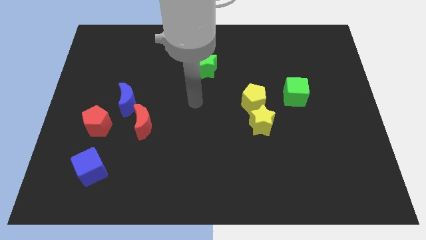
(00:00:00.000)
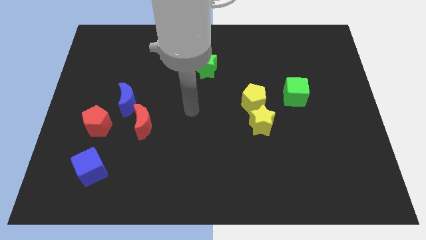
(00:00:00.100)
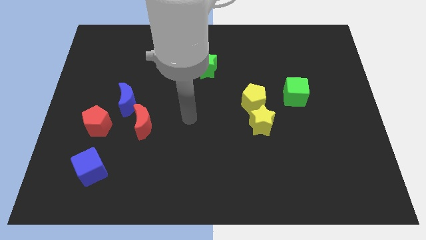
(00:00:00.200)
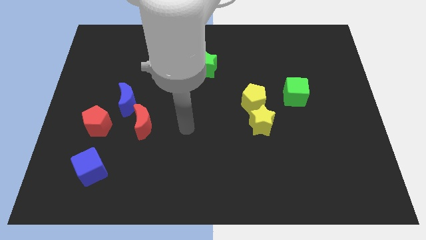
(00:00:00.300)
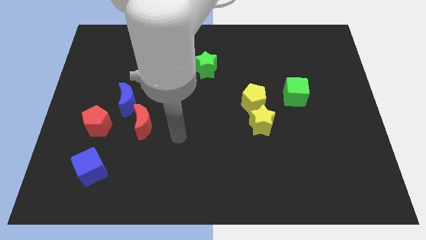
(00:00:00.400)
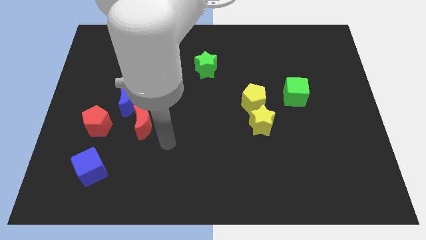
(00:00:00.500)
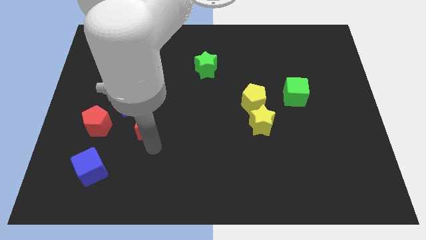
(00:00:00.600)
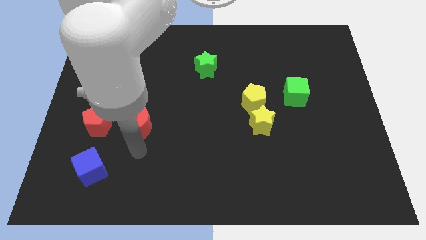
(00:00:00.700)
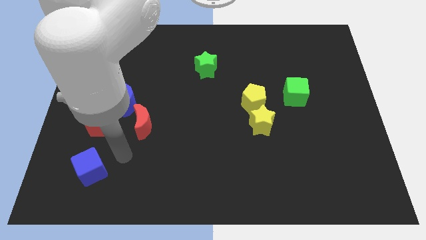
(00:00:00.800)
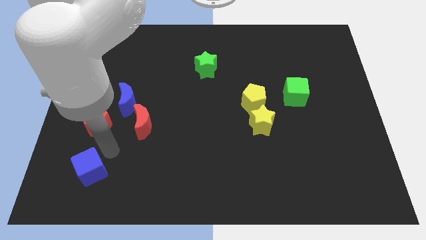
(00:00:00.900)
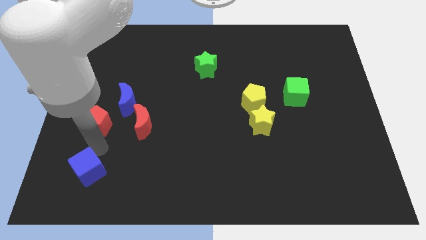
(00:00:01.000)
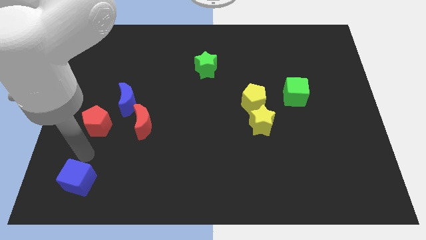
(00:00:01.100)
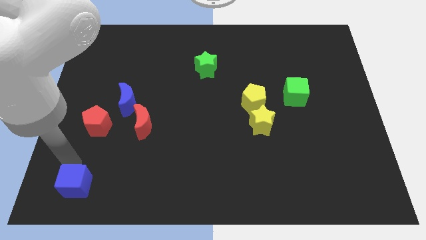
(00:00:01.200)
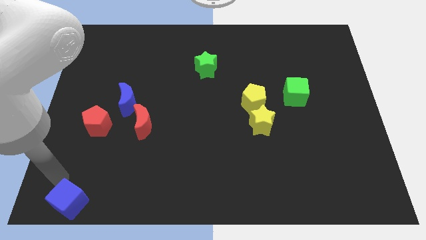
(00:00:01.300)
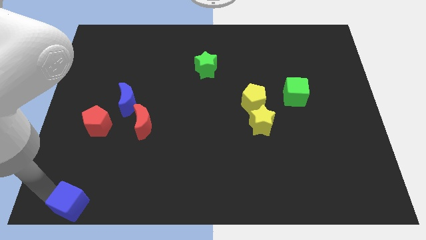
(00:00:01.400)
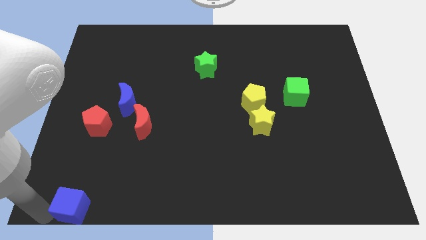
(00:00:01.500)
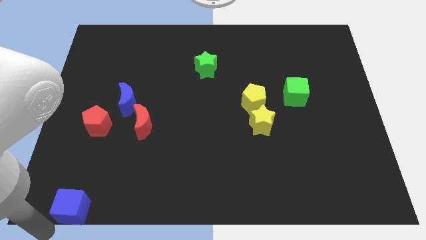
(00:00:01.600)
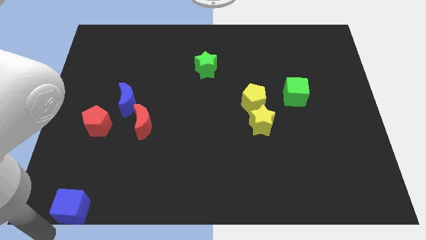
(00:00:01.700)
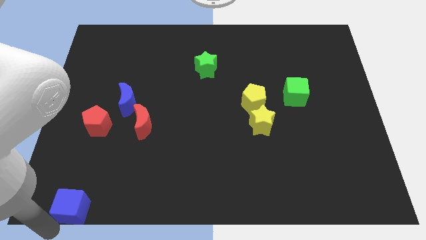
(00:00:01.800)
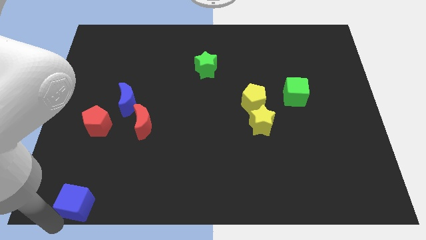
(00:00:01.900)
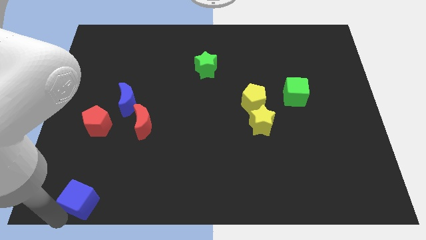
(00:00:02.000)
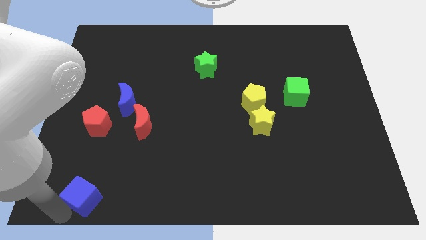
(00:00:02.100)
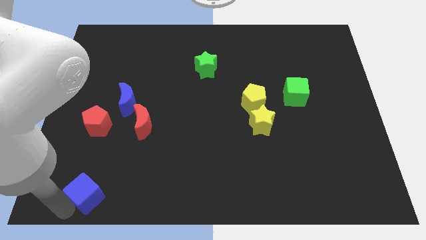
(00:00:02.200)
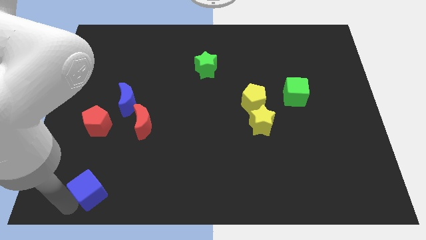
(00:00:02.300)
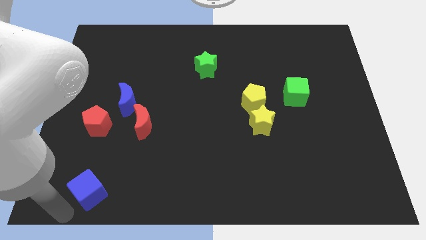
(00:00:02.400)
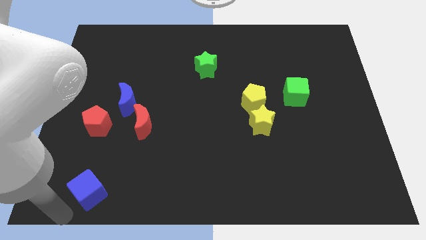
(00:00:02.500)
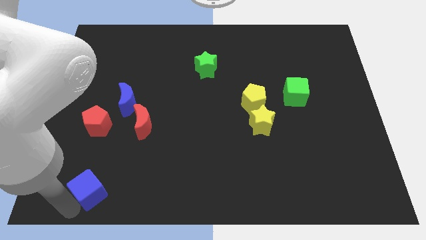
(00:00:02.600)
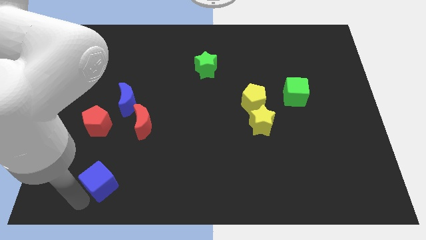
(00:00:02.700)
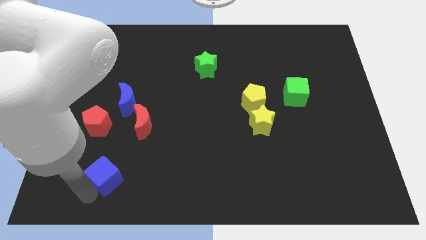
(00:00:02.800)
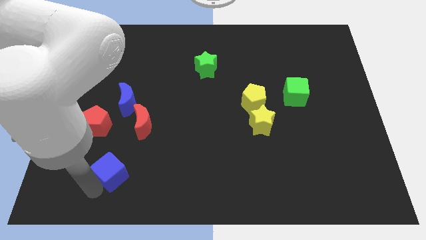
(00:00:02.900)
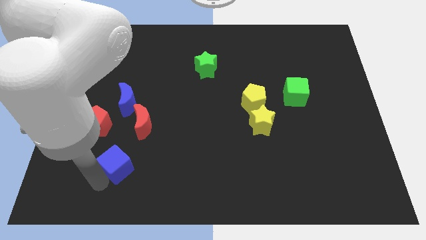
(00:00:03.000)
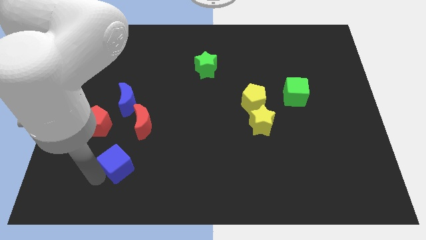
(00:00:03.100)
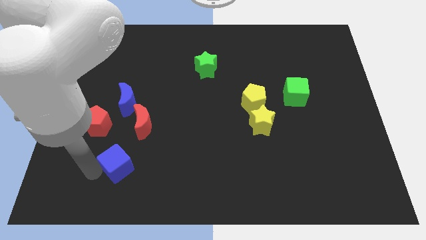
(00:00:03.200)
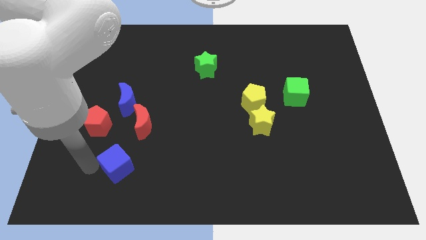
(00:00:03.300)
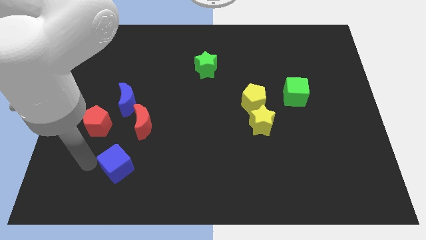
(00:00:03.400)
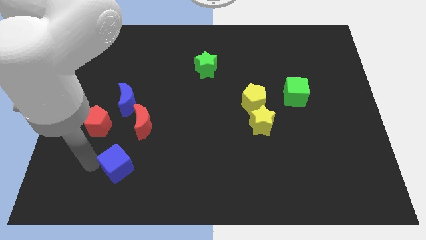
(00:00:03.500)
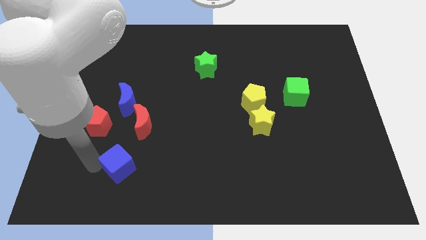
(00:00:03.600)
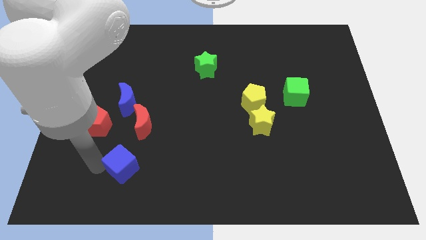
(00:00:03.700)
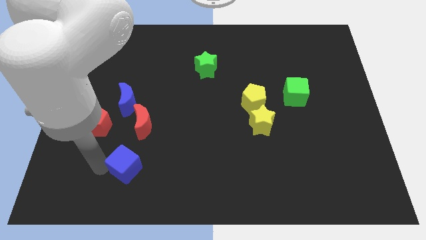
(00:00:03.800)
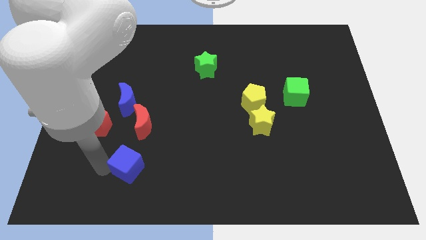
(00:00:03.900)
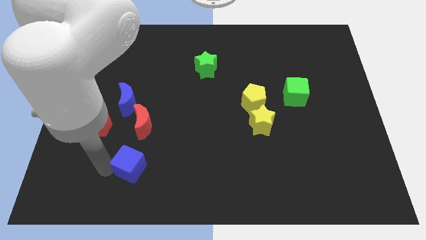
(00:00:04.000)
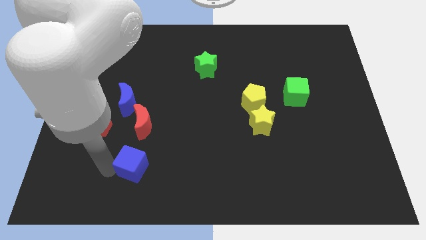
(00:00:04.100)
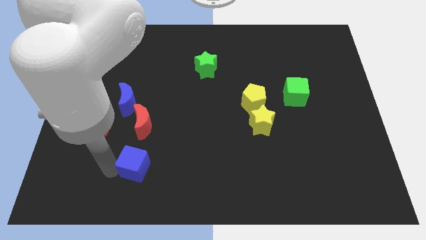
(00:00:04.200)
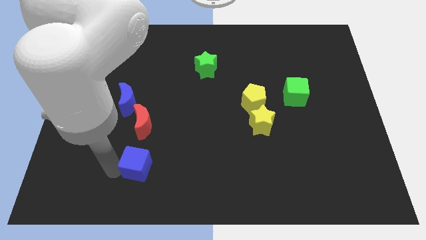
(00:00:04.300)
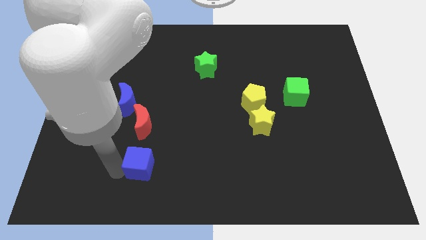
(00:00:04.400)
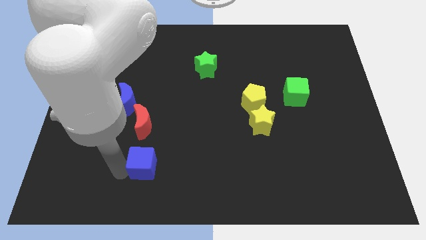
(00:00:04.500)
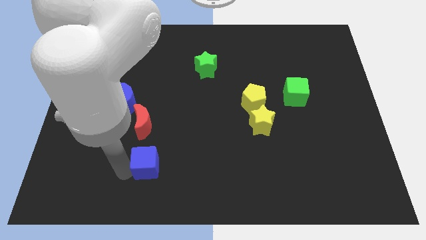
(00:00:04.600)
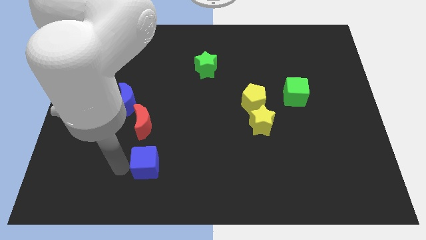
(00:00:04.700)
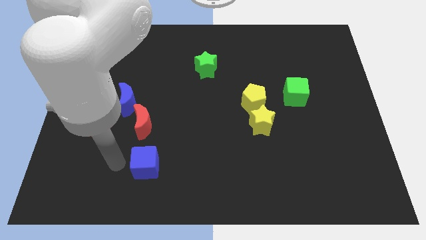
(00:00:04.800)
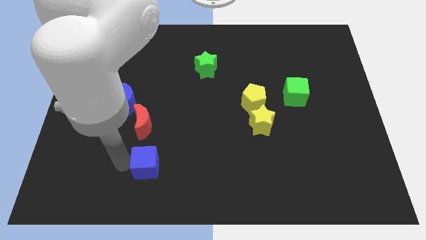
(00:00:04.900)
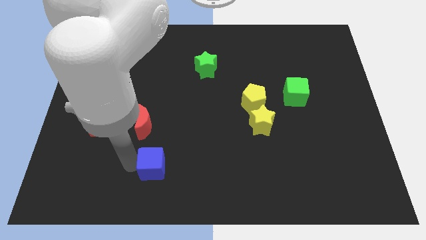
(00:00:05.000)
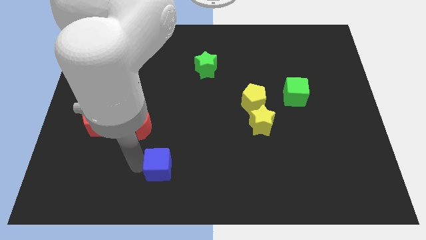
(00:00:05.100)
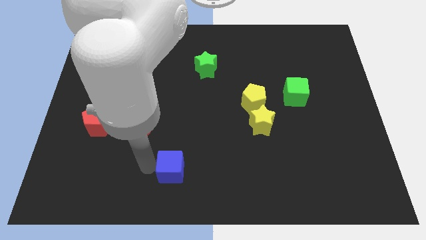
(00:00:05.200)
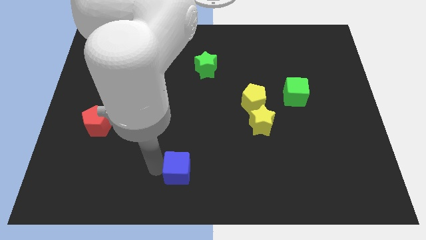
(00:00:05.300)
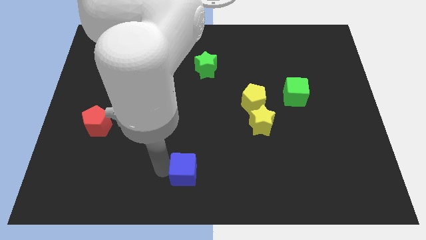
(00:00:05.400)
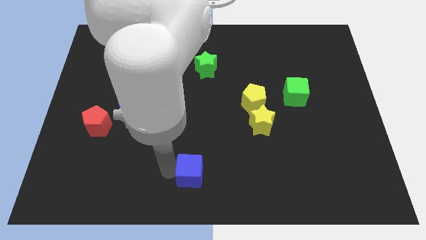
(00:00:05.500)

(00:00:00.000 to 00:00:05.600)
move the blue cube to the right

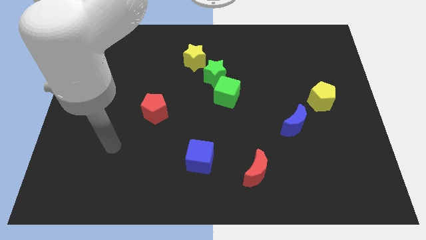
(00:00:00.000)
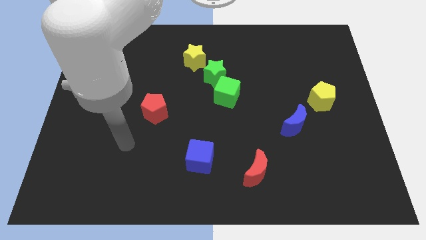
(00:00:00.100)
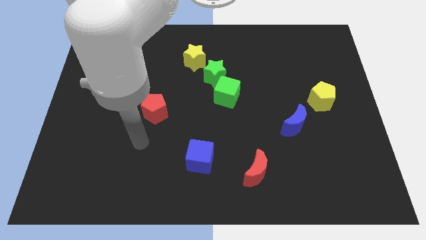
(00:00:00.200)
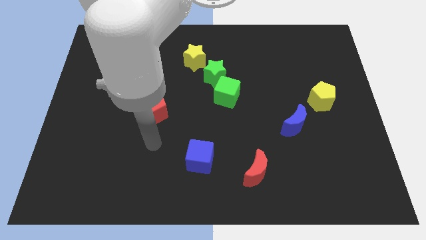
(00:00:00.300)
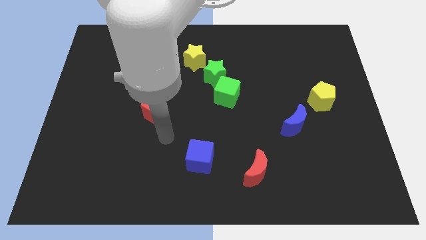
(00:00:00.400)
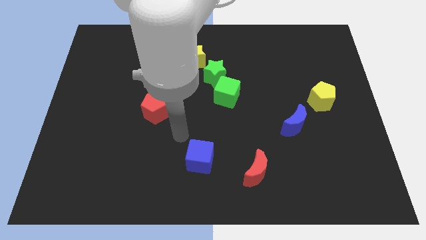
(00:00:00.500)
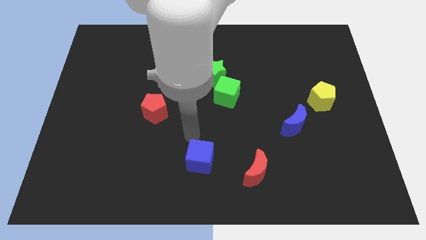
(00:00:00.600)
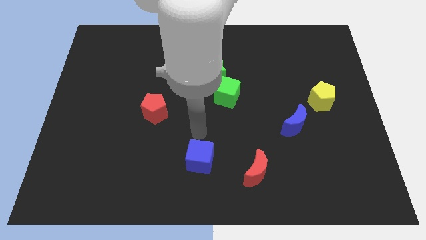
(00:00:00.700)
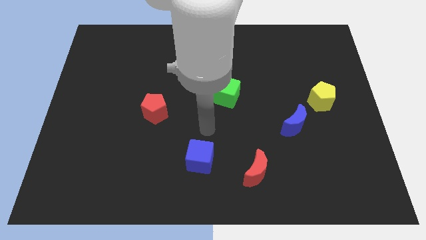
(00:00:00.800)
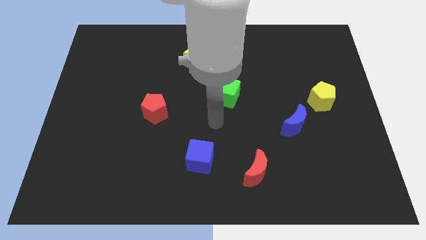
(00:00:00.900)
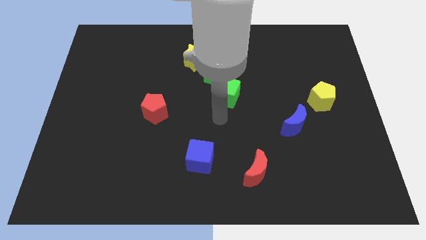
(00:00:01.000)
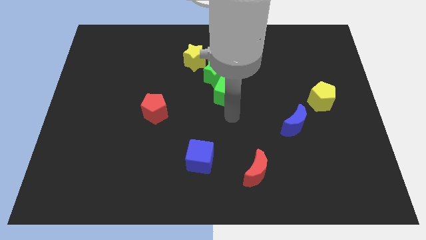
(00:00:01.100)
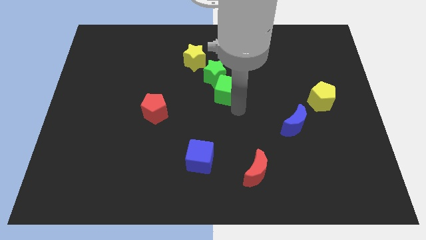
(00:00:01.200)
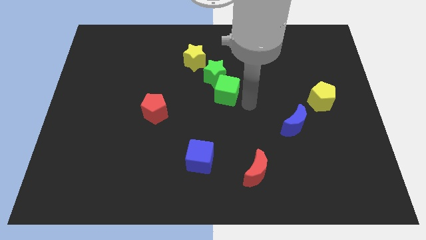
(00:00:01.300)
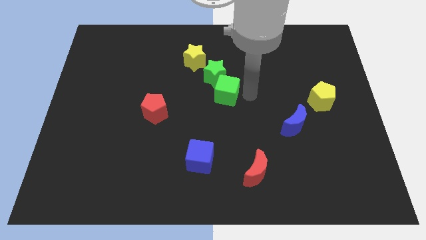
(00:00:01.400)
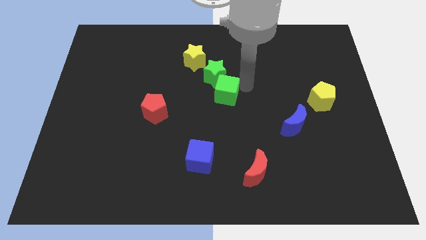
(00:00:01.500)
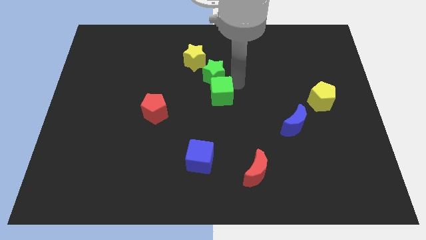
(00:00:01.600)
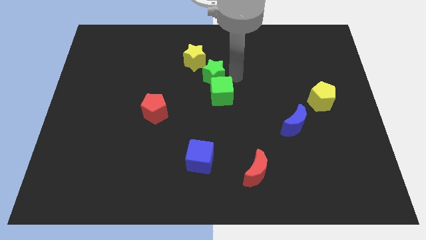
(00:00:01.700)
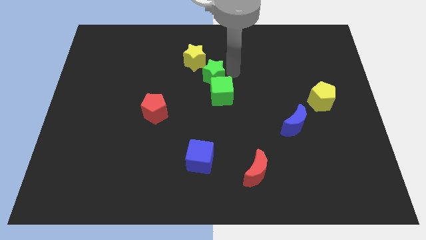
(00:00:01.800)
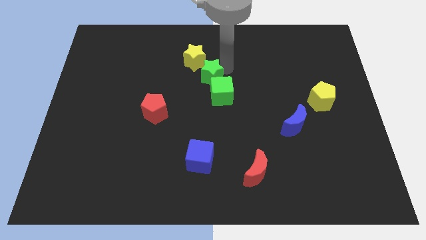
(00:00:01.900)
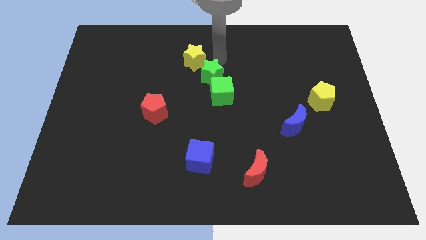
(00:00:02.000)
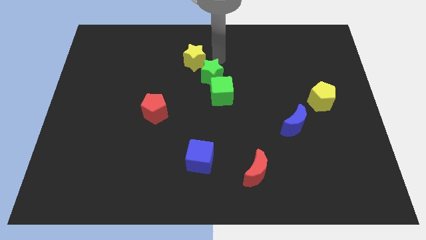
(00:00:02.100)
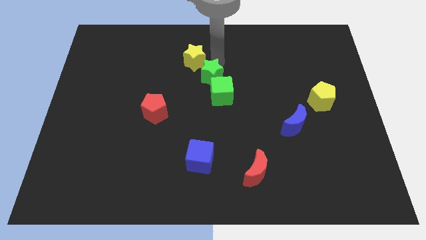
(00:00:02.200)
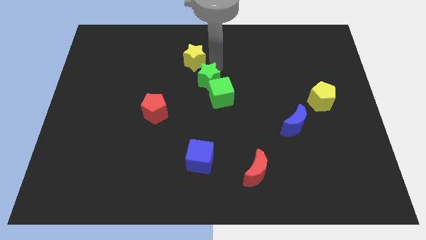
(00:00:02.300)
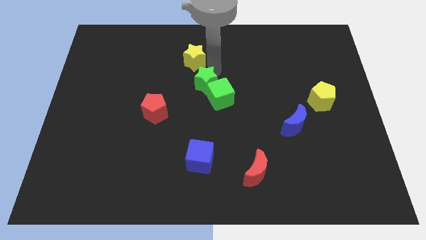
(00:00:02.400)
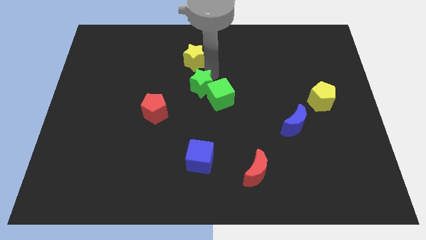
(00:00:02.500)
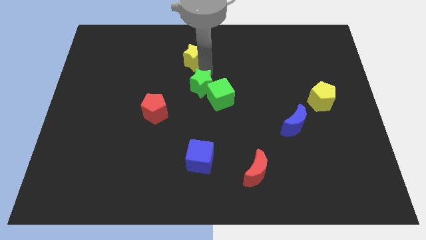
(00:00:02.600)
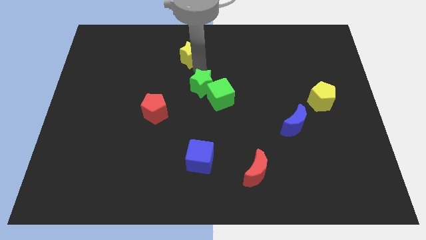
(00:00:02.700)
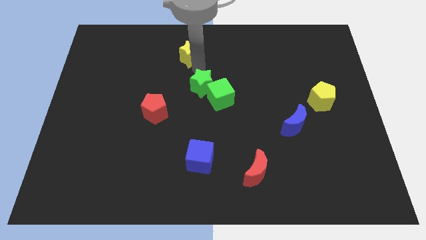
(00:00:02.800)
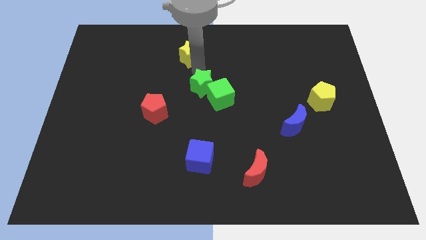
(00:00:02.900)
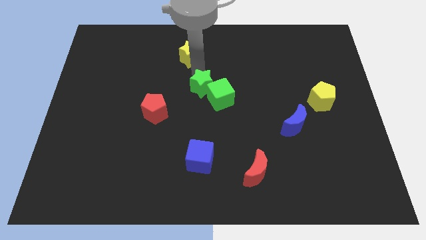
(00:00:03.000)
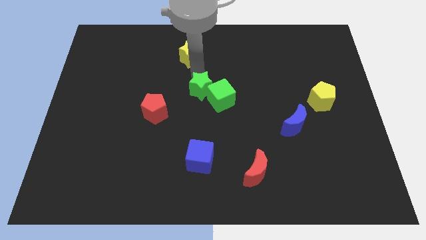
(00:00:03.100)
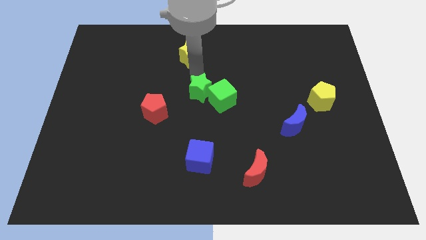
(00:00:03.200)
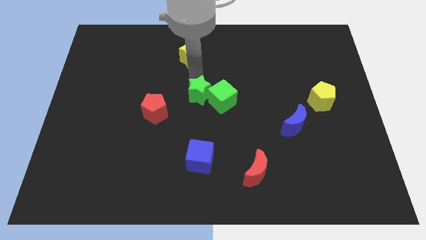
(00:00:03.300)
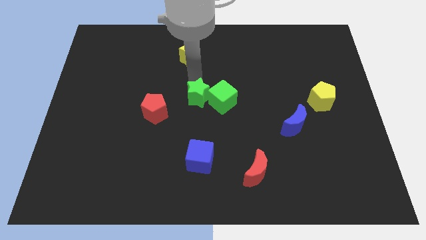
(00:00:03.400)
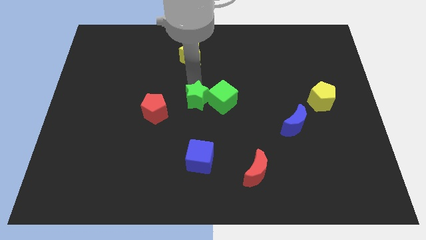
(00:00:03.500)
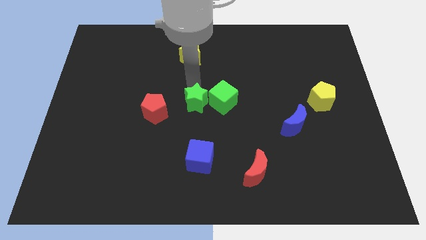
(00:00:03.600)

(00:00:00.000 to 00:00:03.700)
move the green star slightly downwards
